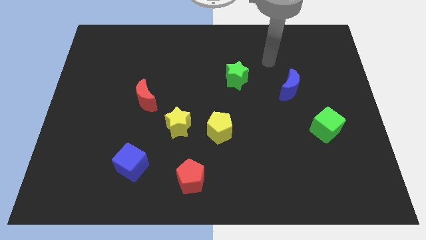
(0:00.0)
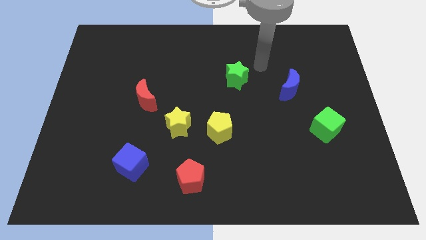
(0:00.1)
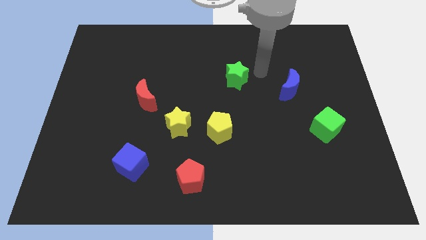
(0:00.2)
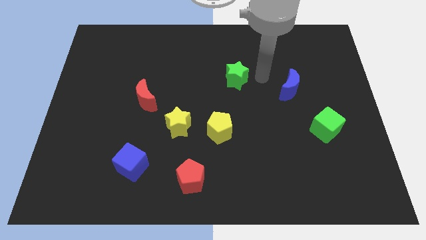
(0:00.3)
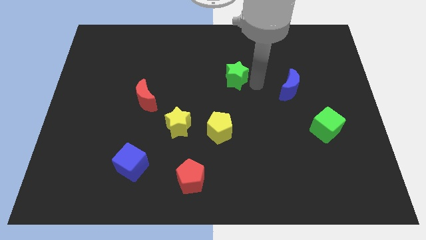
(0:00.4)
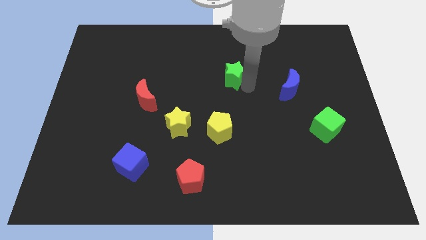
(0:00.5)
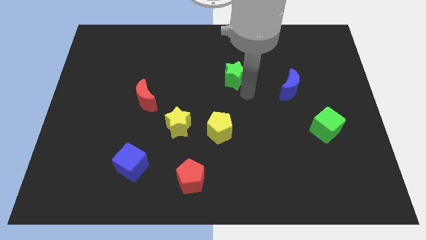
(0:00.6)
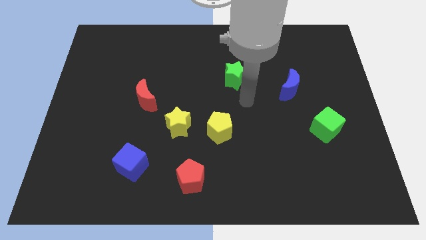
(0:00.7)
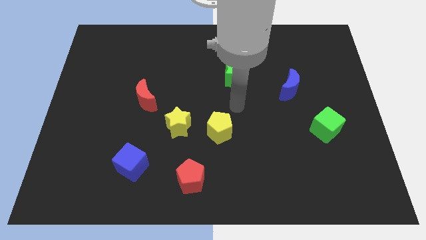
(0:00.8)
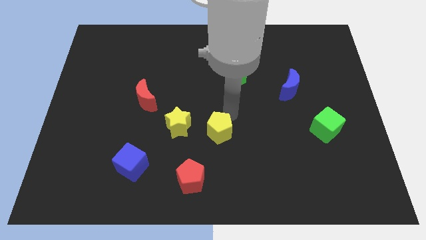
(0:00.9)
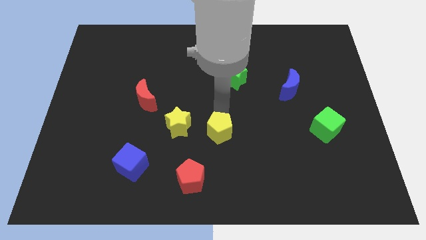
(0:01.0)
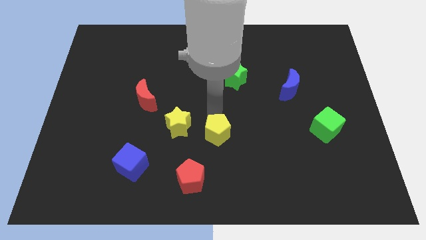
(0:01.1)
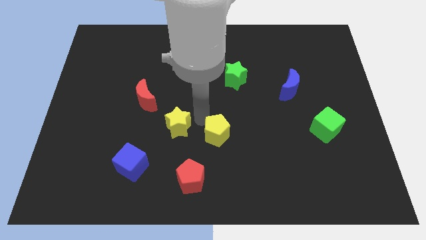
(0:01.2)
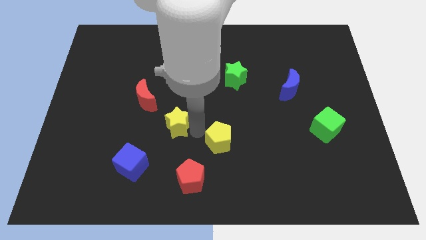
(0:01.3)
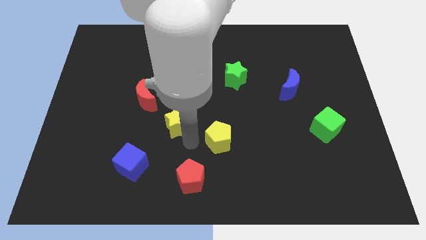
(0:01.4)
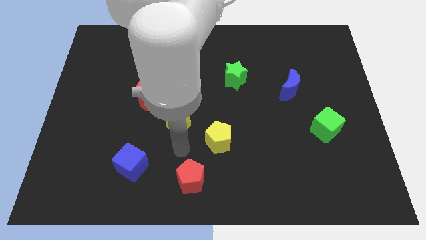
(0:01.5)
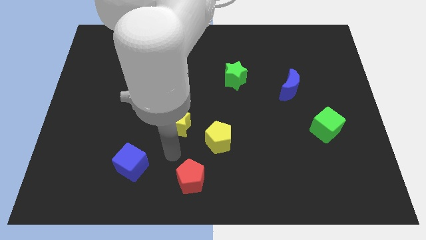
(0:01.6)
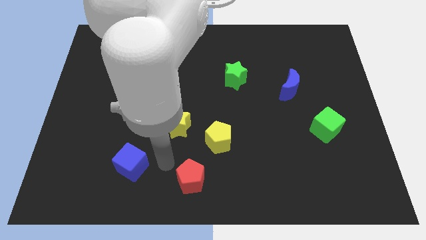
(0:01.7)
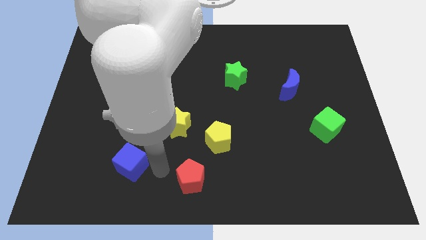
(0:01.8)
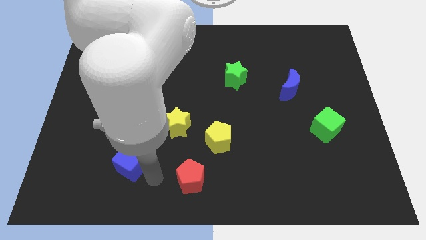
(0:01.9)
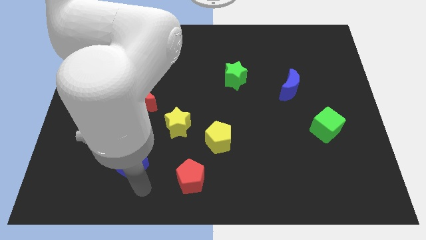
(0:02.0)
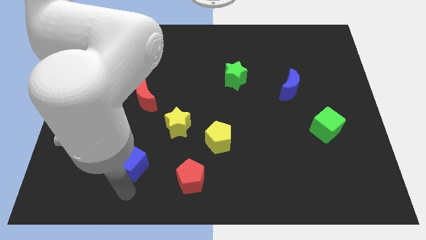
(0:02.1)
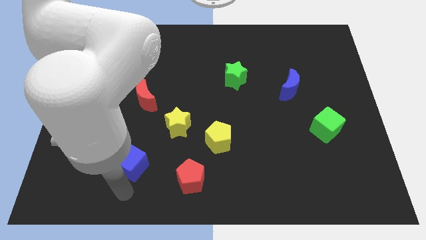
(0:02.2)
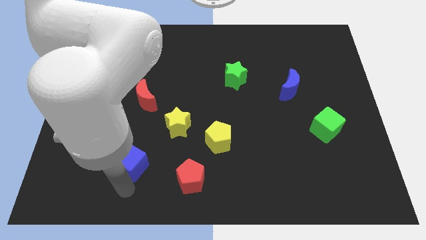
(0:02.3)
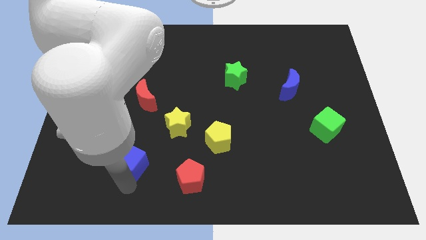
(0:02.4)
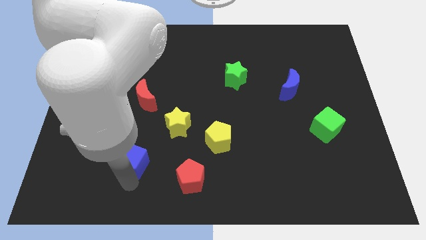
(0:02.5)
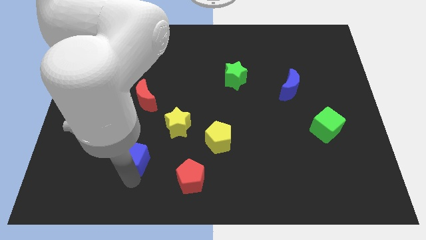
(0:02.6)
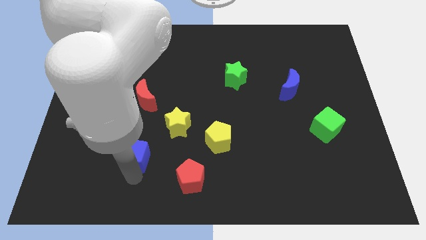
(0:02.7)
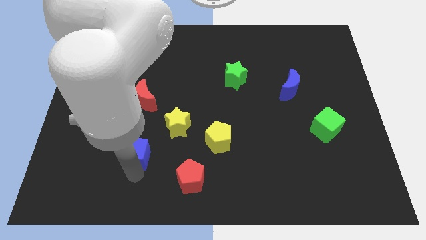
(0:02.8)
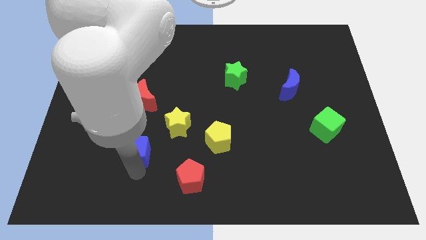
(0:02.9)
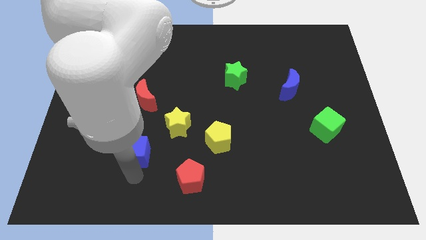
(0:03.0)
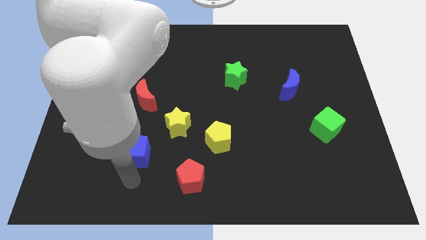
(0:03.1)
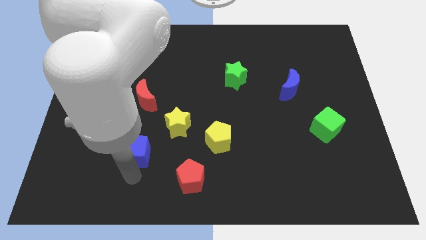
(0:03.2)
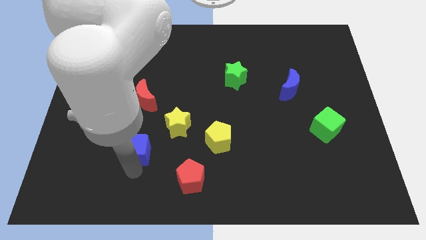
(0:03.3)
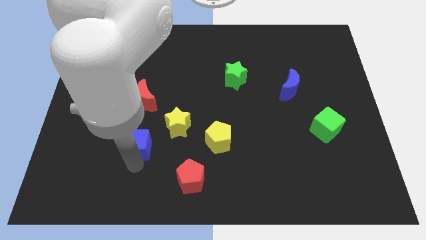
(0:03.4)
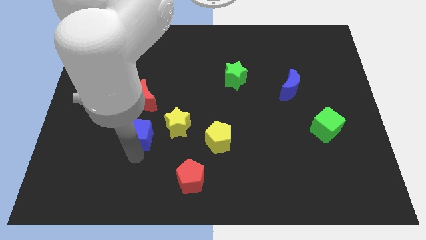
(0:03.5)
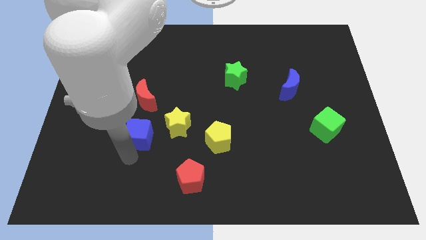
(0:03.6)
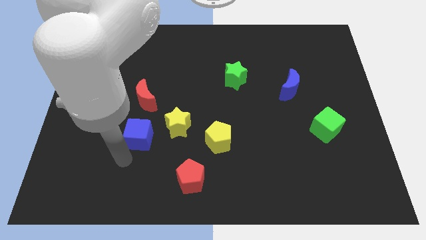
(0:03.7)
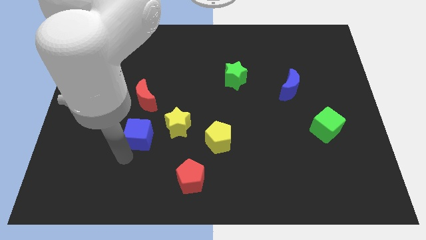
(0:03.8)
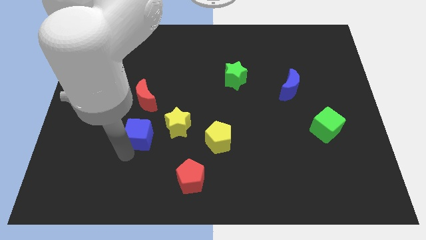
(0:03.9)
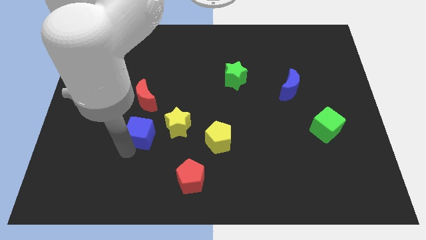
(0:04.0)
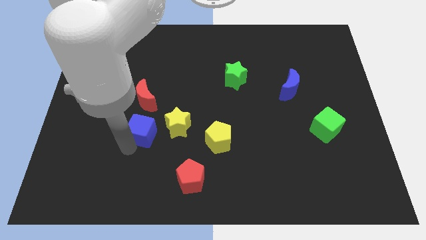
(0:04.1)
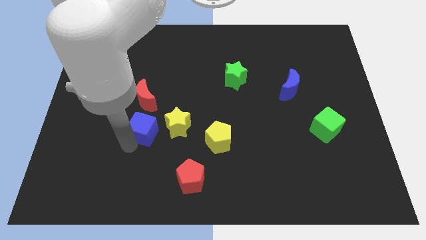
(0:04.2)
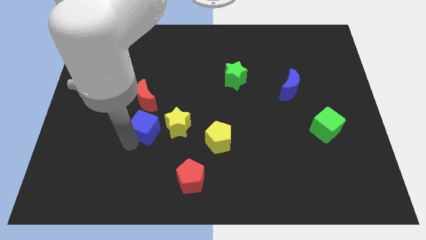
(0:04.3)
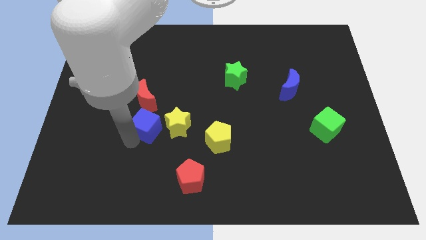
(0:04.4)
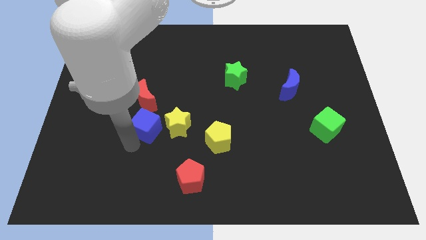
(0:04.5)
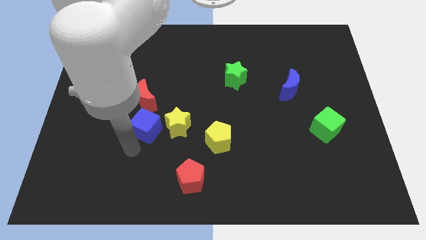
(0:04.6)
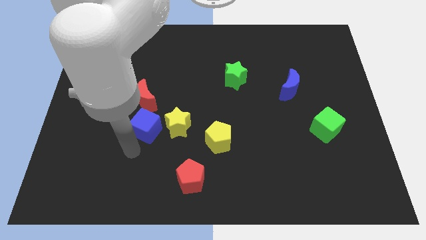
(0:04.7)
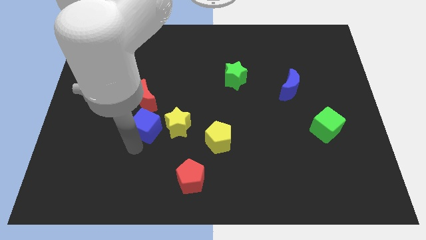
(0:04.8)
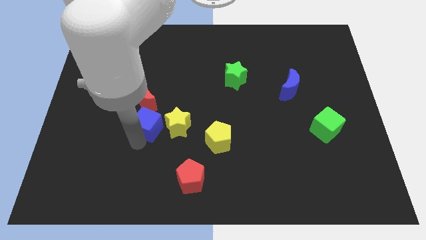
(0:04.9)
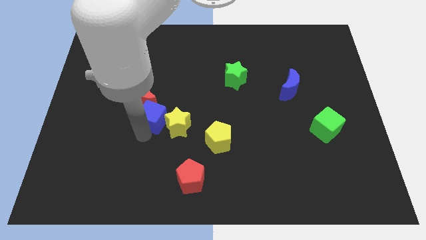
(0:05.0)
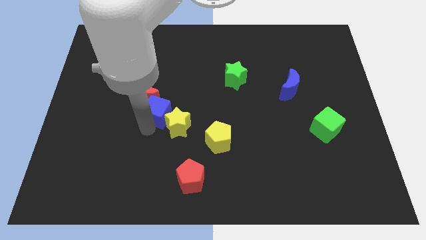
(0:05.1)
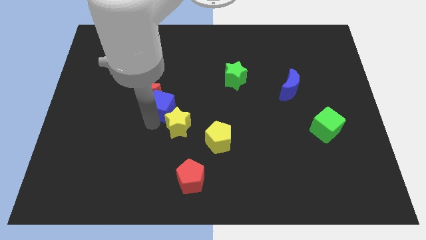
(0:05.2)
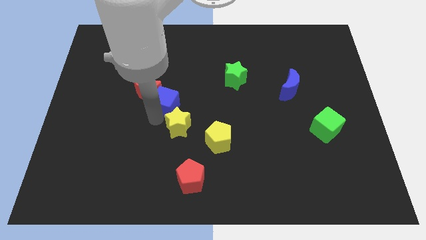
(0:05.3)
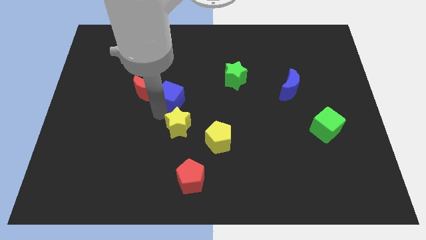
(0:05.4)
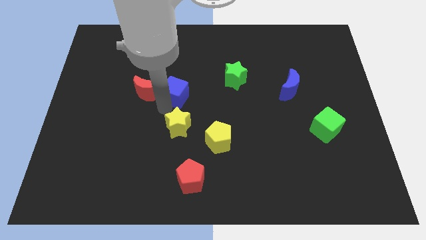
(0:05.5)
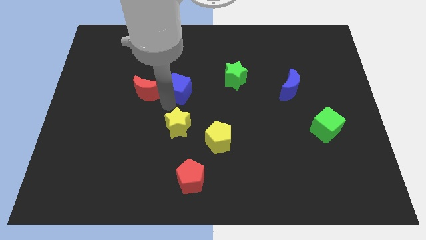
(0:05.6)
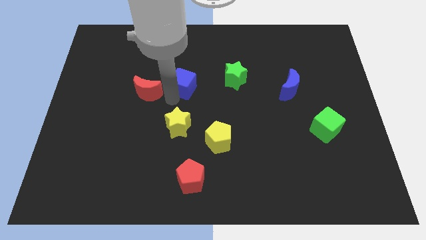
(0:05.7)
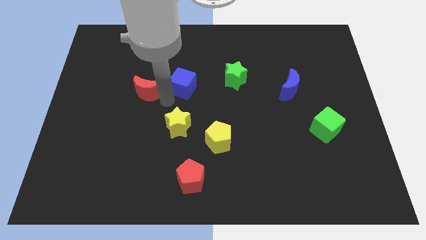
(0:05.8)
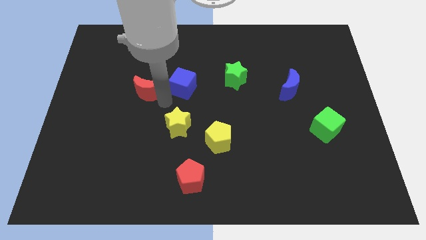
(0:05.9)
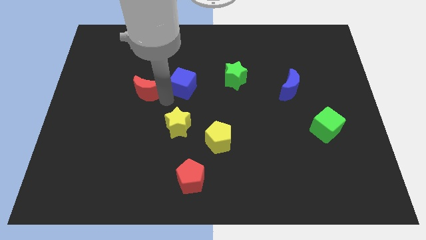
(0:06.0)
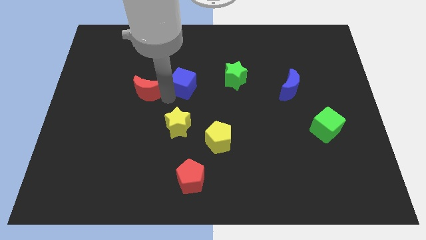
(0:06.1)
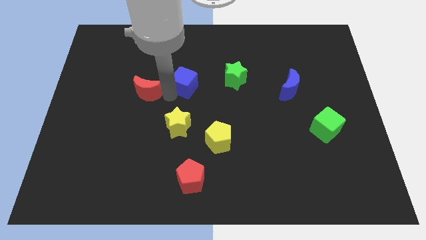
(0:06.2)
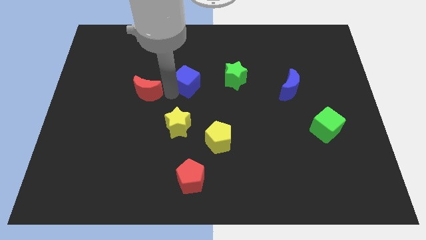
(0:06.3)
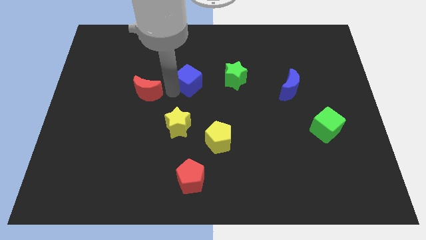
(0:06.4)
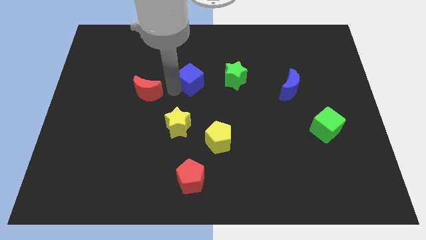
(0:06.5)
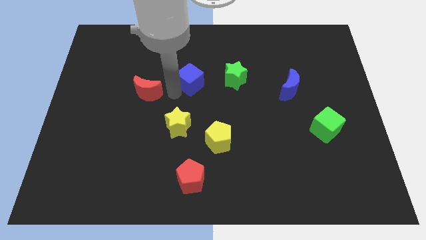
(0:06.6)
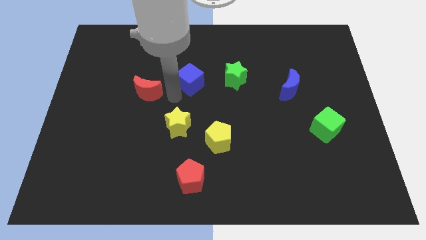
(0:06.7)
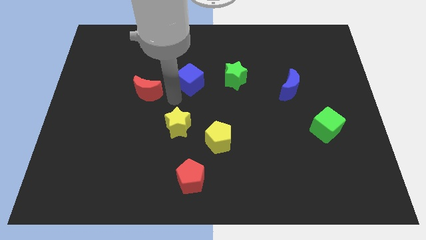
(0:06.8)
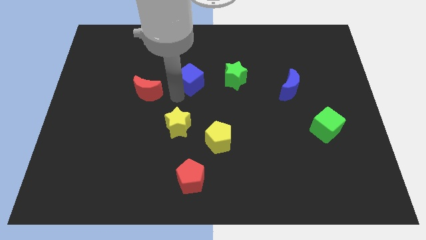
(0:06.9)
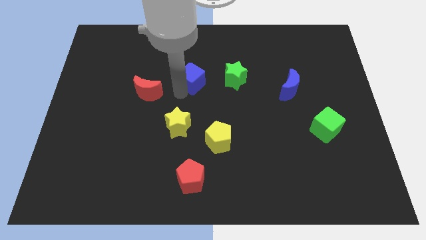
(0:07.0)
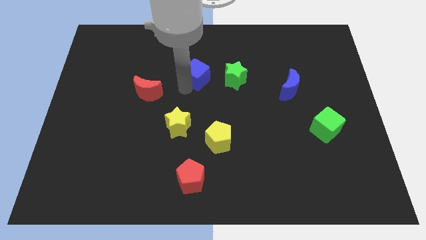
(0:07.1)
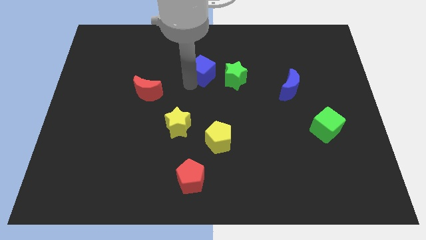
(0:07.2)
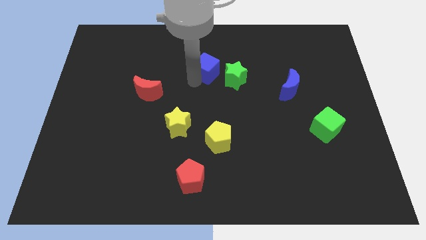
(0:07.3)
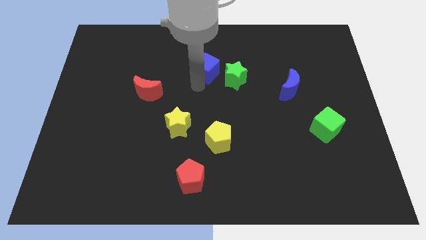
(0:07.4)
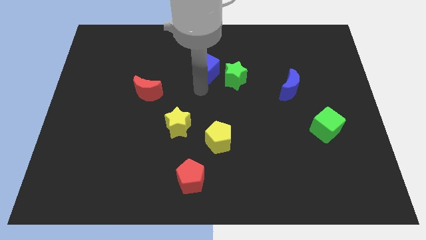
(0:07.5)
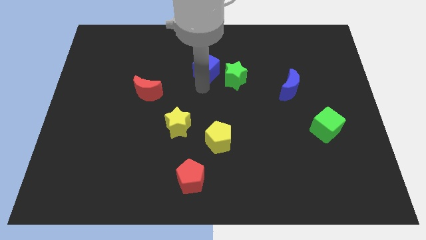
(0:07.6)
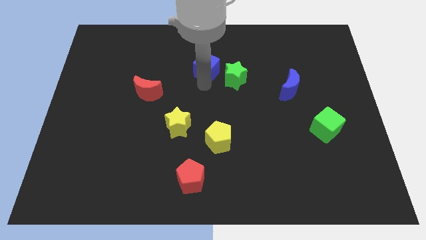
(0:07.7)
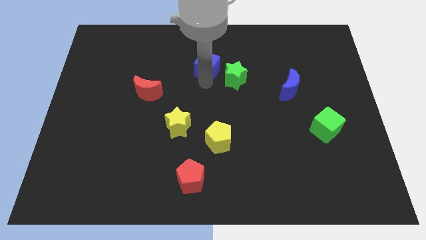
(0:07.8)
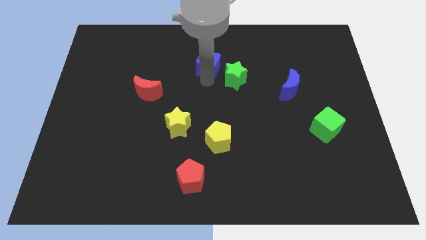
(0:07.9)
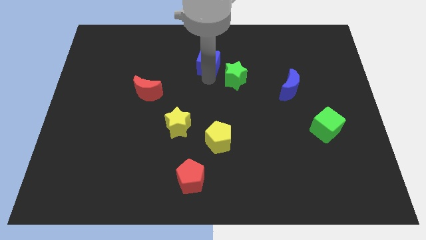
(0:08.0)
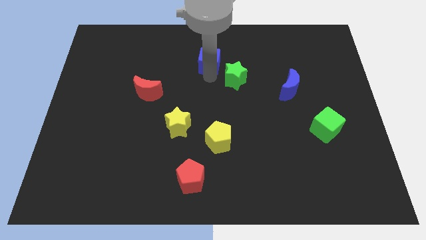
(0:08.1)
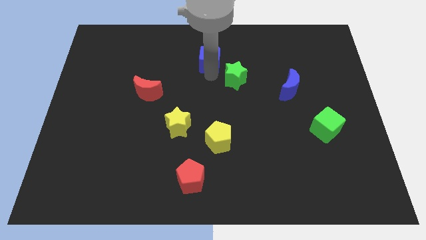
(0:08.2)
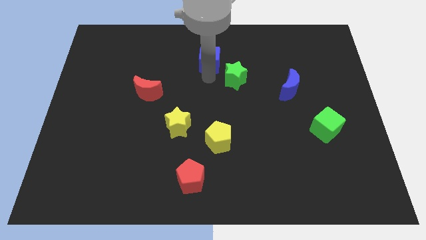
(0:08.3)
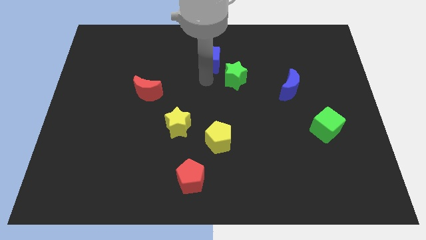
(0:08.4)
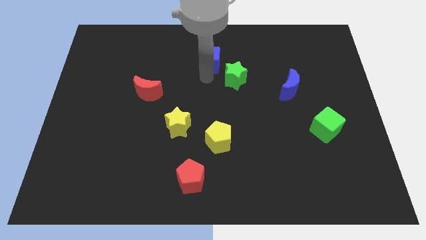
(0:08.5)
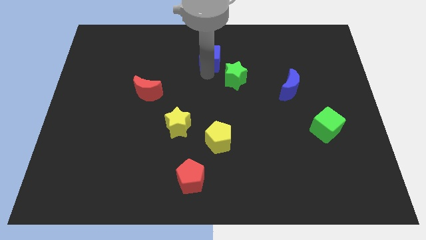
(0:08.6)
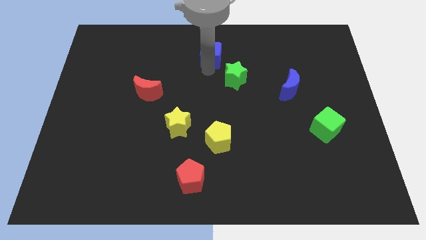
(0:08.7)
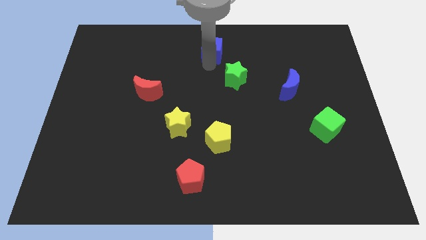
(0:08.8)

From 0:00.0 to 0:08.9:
push the blue cube to the top
